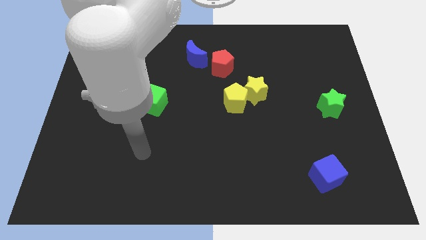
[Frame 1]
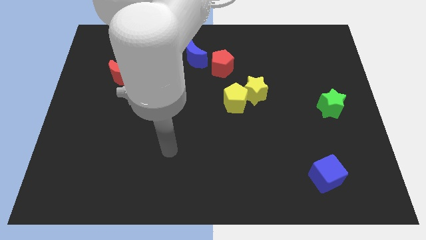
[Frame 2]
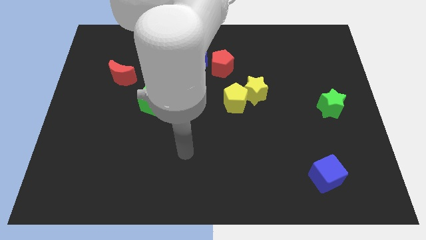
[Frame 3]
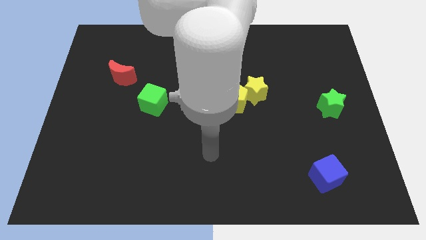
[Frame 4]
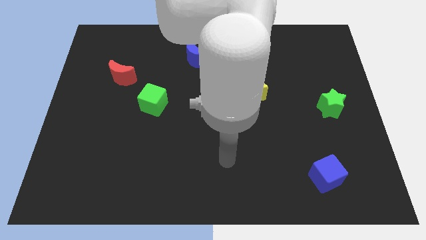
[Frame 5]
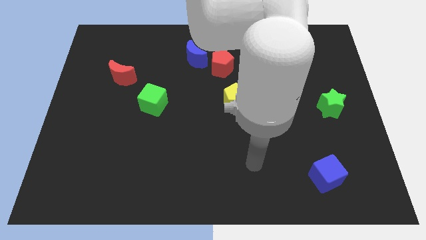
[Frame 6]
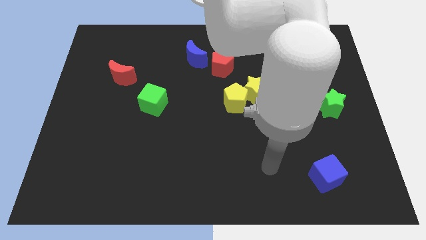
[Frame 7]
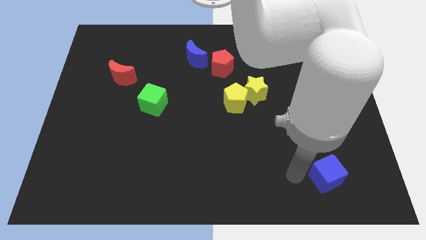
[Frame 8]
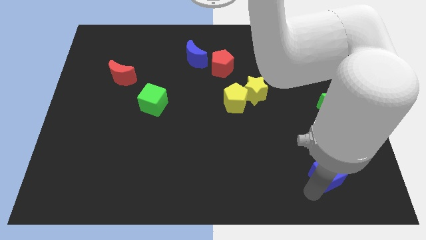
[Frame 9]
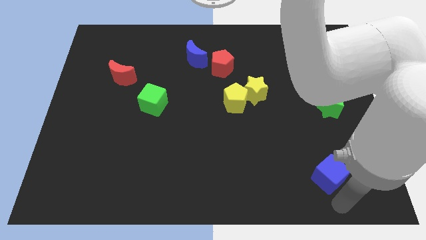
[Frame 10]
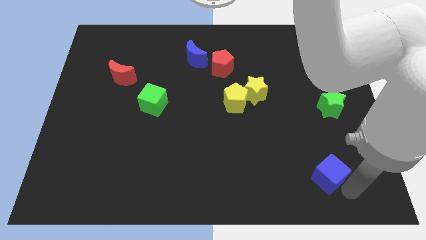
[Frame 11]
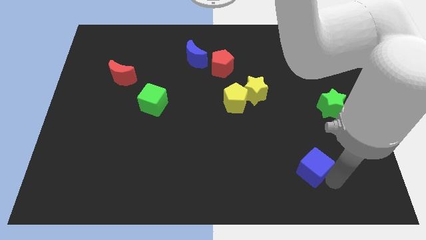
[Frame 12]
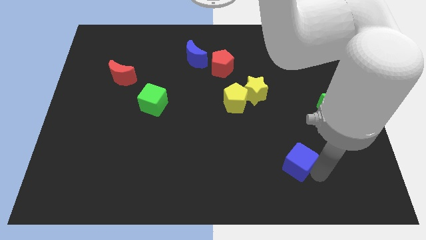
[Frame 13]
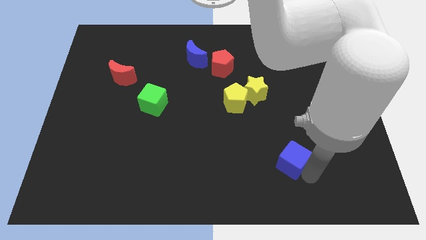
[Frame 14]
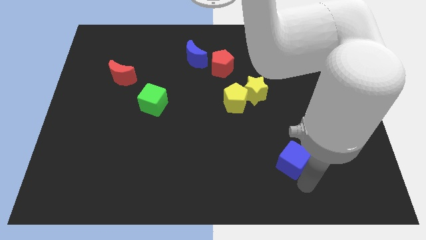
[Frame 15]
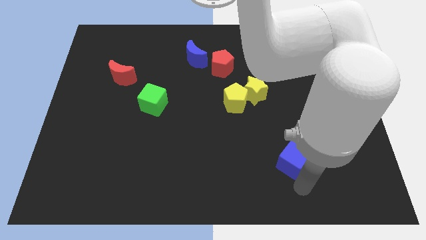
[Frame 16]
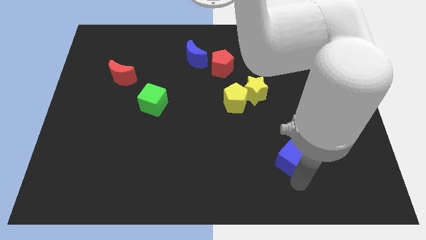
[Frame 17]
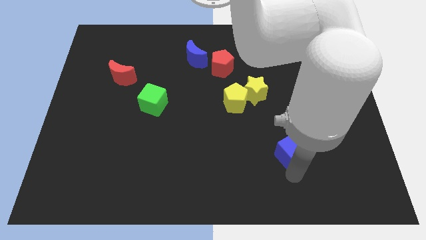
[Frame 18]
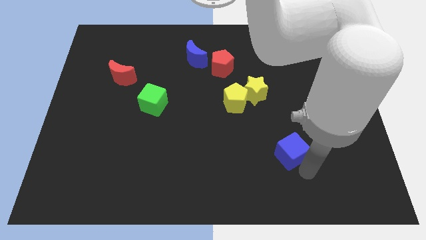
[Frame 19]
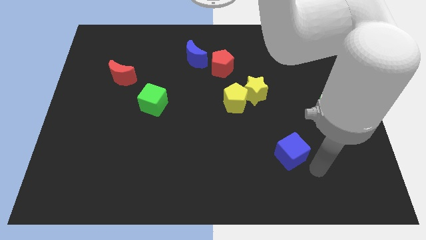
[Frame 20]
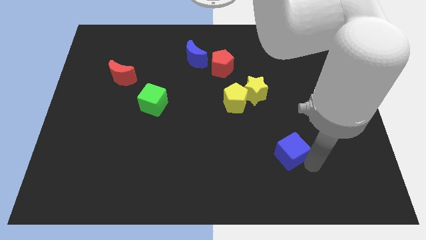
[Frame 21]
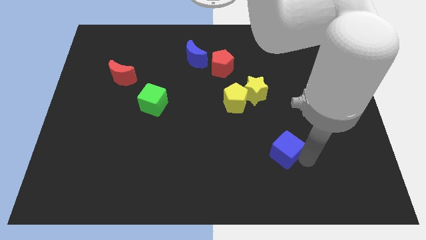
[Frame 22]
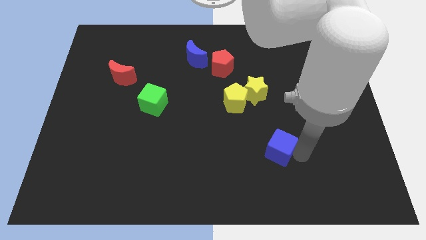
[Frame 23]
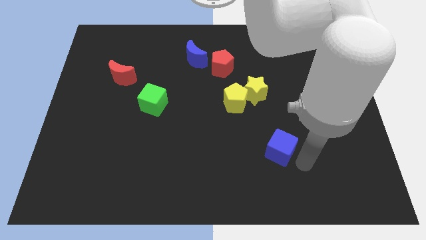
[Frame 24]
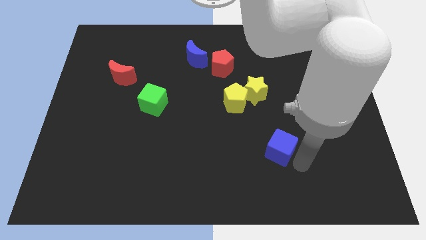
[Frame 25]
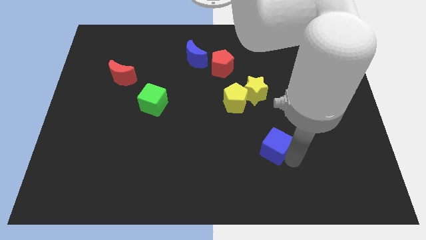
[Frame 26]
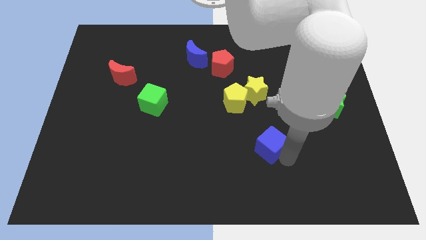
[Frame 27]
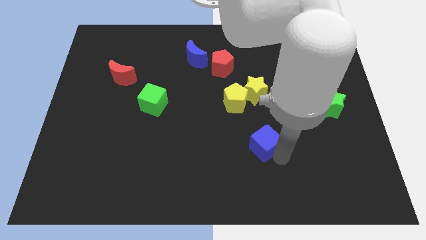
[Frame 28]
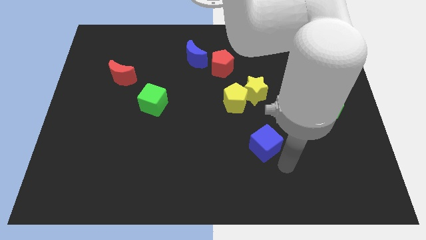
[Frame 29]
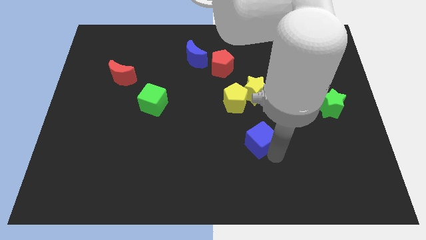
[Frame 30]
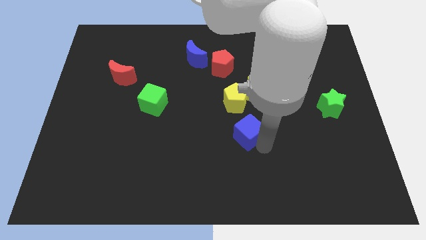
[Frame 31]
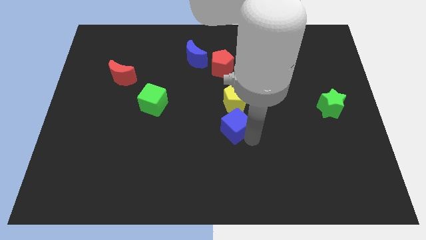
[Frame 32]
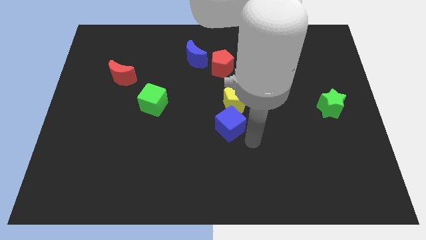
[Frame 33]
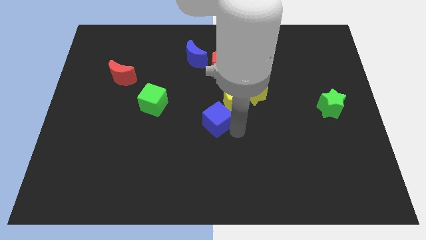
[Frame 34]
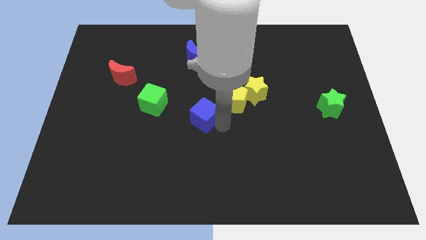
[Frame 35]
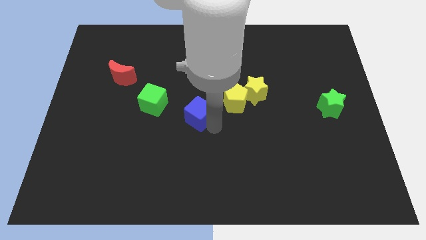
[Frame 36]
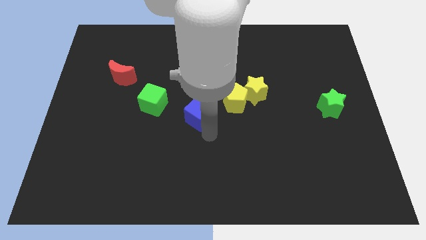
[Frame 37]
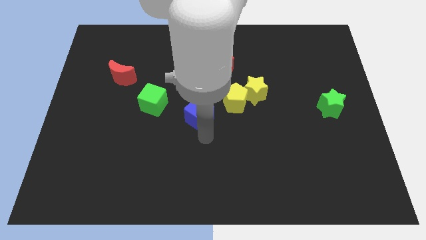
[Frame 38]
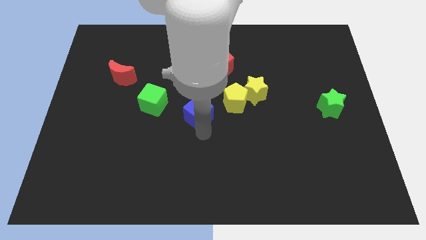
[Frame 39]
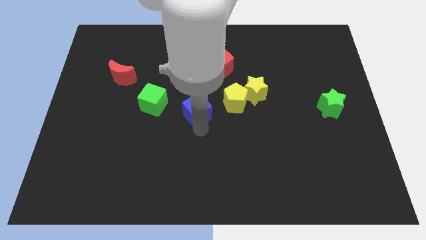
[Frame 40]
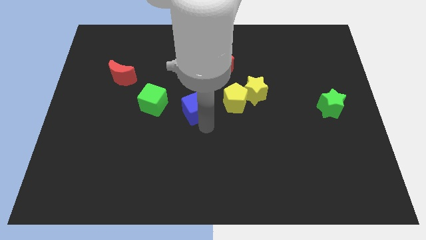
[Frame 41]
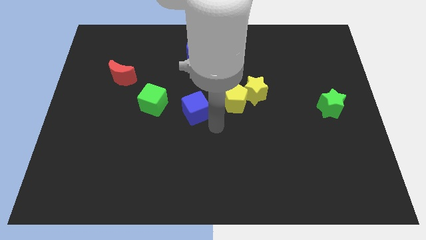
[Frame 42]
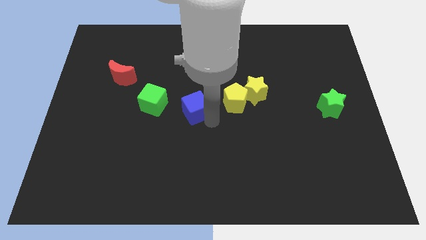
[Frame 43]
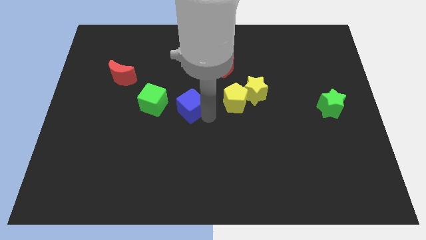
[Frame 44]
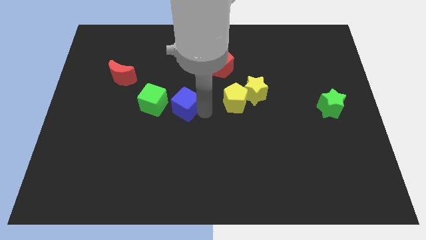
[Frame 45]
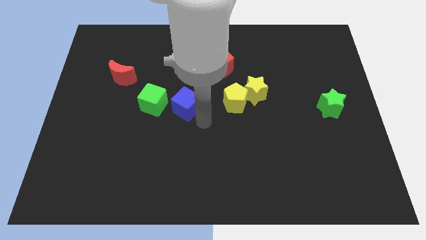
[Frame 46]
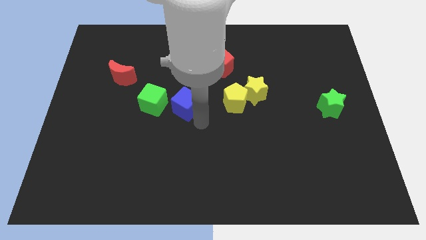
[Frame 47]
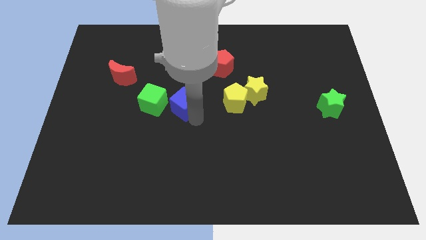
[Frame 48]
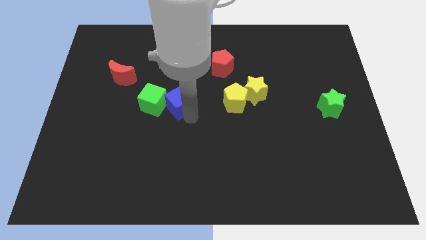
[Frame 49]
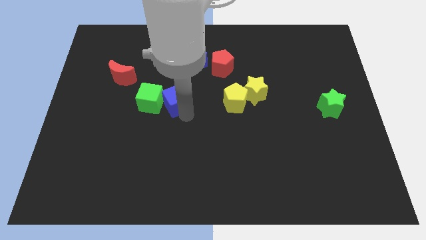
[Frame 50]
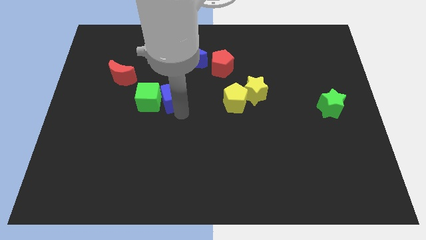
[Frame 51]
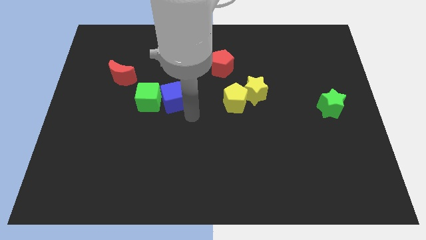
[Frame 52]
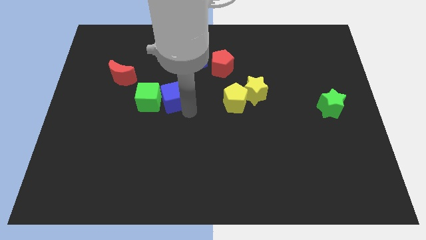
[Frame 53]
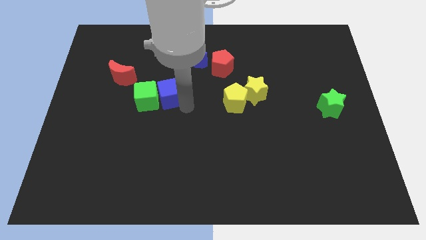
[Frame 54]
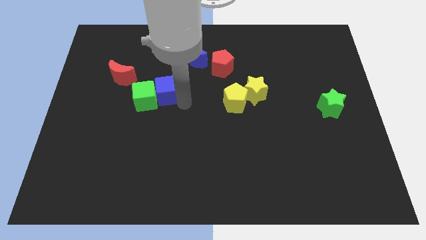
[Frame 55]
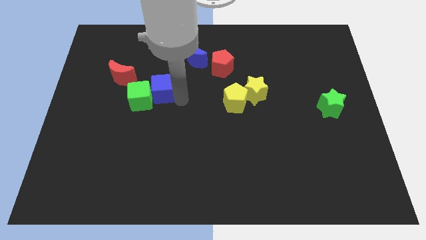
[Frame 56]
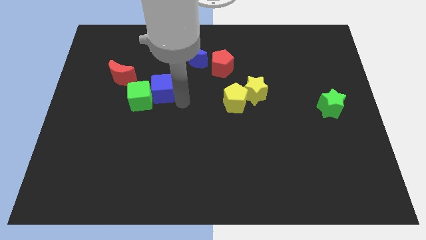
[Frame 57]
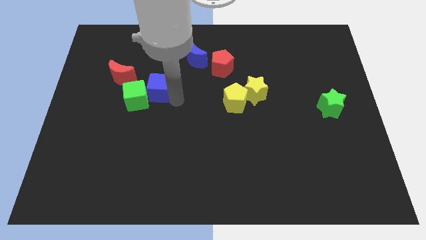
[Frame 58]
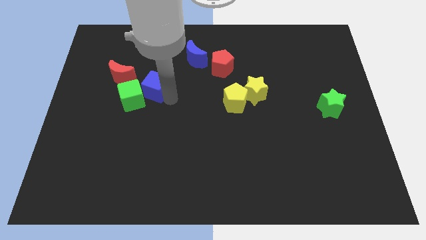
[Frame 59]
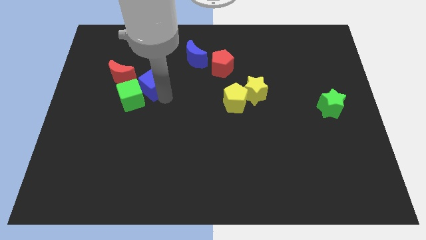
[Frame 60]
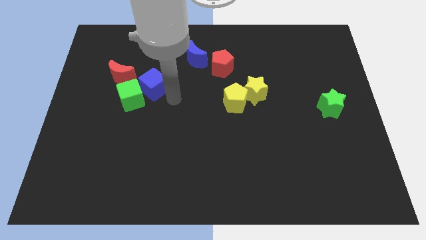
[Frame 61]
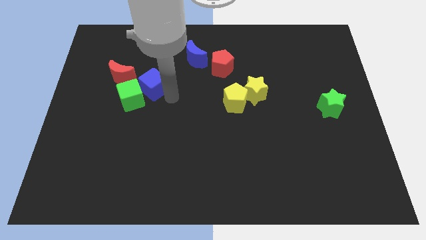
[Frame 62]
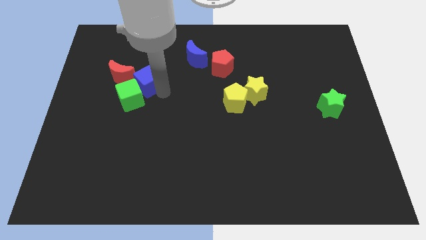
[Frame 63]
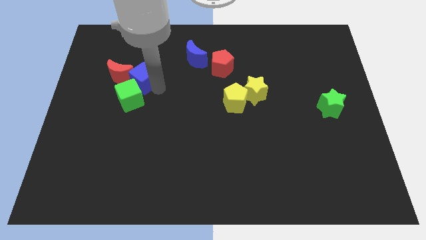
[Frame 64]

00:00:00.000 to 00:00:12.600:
put the blue cube next to the red moon

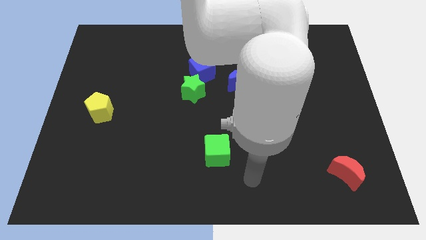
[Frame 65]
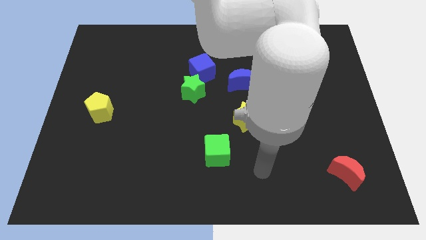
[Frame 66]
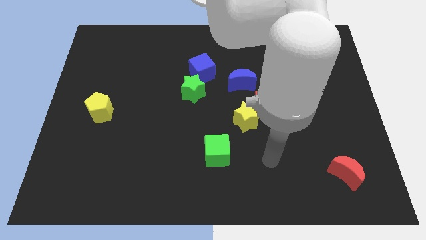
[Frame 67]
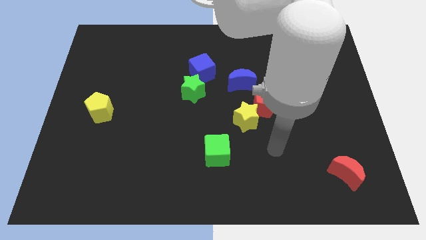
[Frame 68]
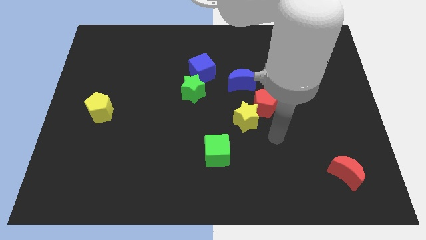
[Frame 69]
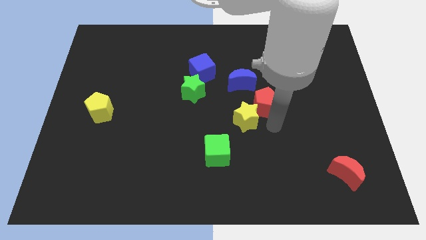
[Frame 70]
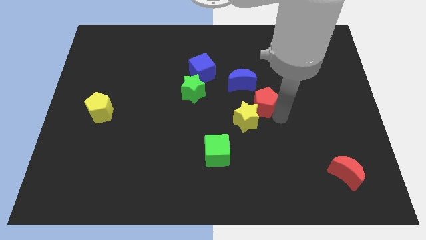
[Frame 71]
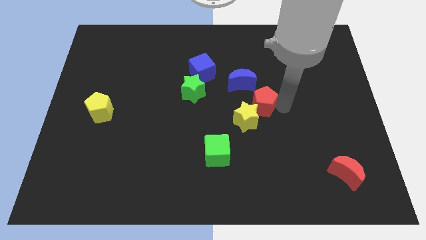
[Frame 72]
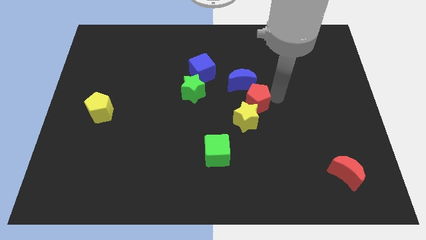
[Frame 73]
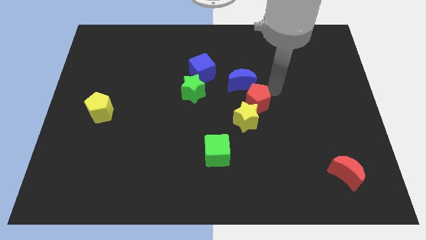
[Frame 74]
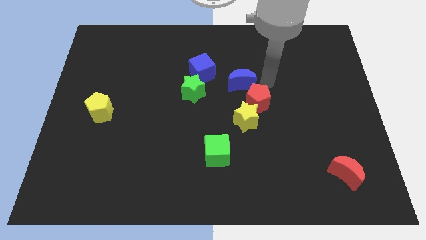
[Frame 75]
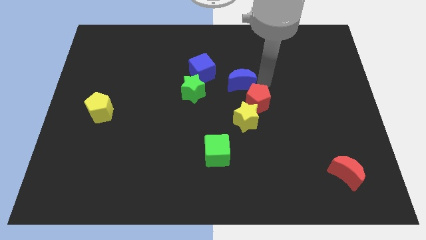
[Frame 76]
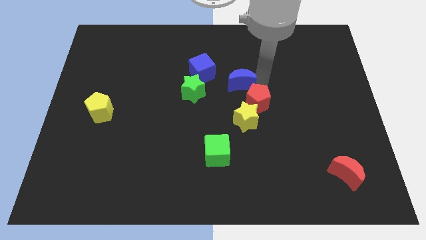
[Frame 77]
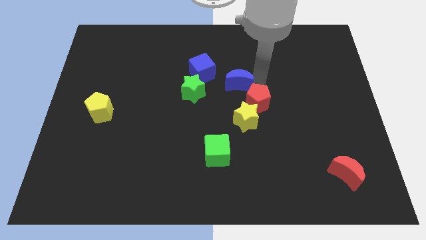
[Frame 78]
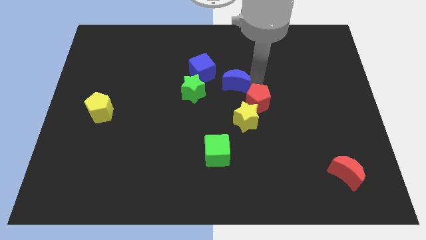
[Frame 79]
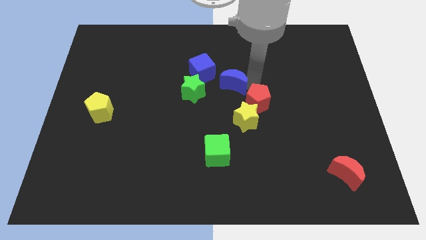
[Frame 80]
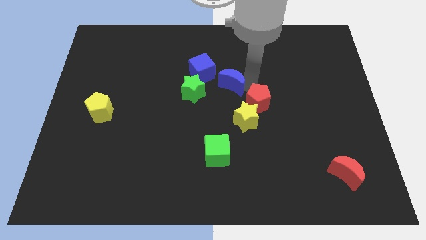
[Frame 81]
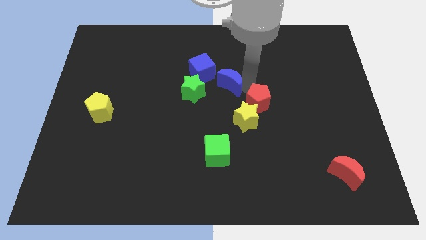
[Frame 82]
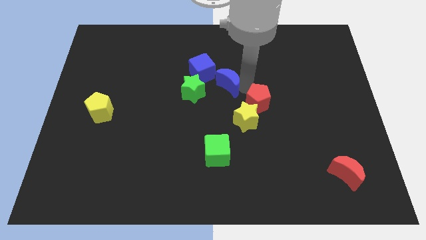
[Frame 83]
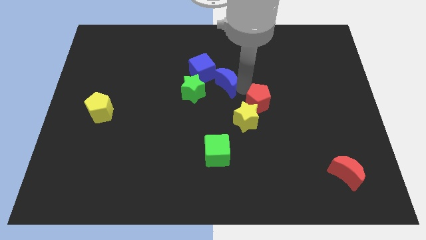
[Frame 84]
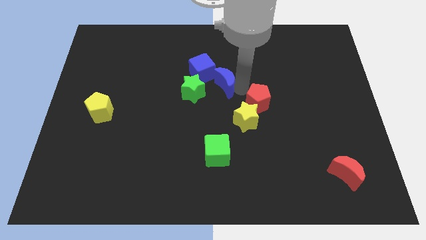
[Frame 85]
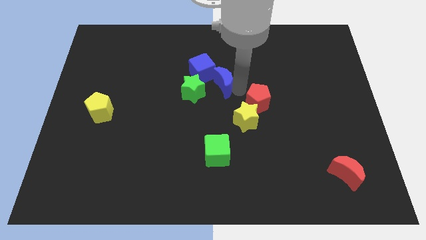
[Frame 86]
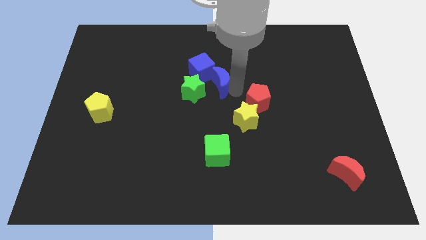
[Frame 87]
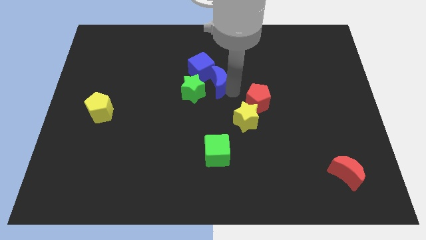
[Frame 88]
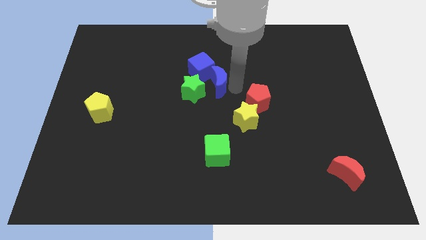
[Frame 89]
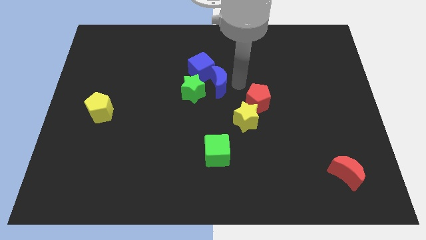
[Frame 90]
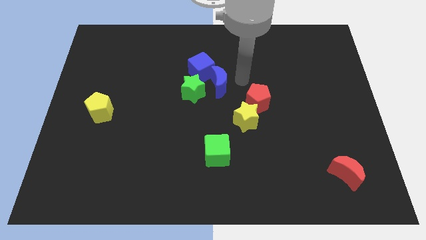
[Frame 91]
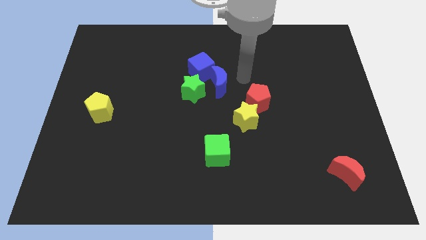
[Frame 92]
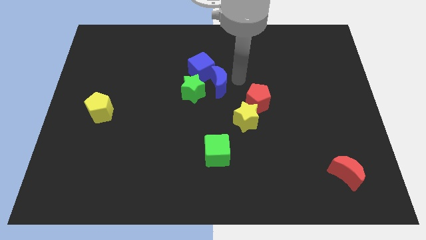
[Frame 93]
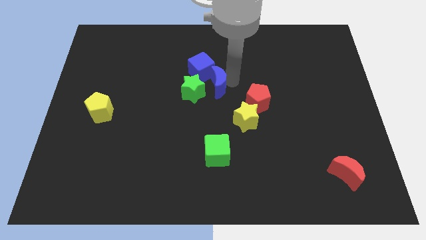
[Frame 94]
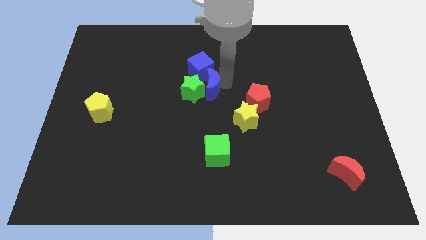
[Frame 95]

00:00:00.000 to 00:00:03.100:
move the blue moon next to the green star
